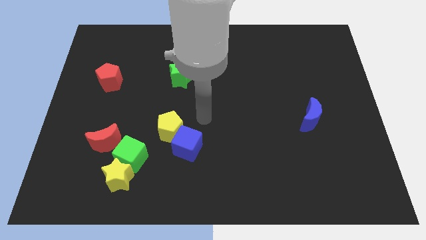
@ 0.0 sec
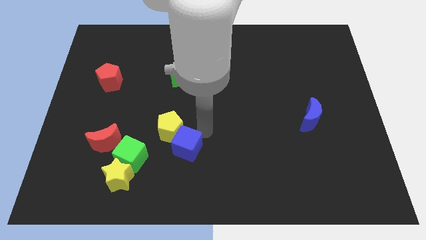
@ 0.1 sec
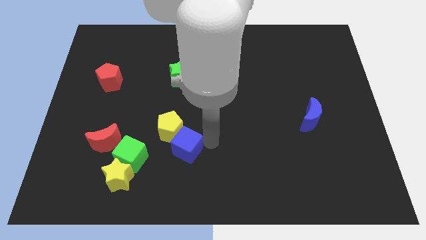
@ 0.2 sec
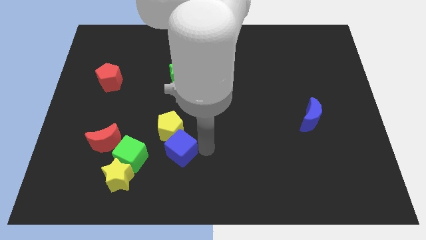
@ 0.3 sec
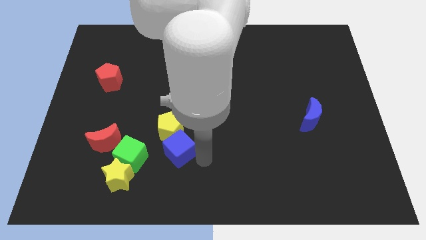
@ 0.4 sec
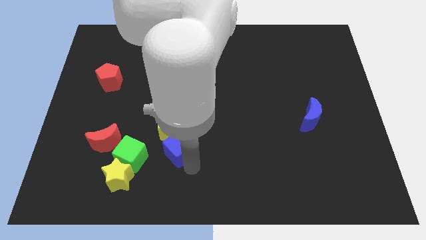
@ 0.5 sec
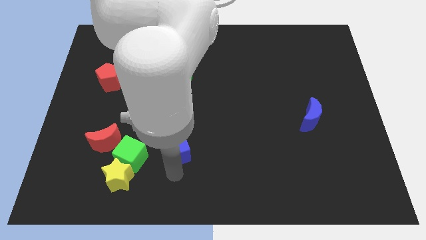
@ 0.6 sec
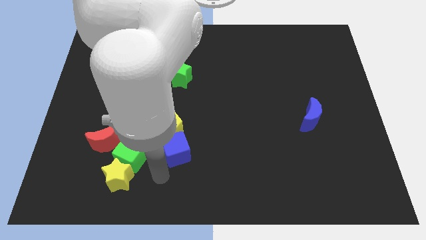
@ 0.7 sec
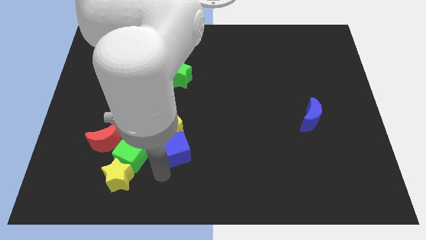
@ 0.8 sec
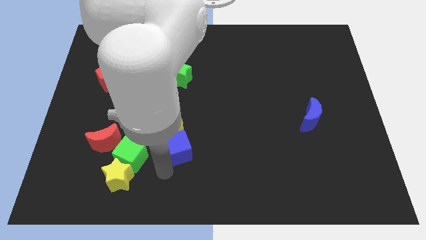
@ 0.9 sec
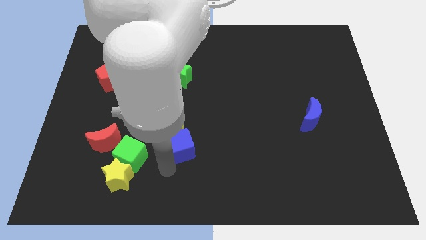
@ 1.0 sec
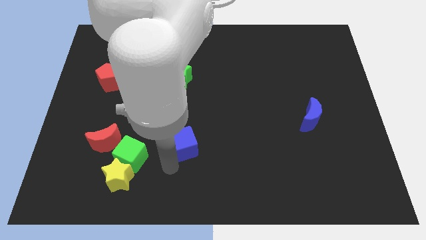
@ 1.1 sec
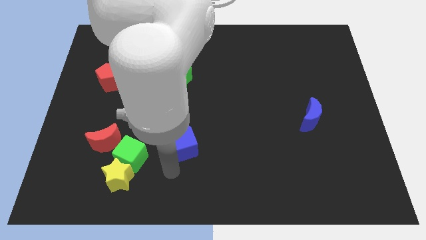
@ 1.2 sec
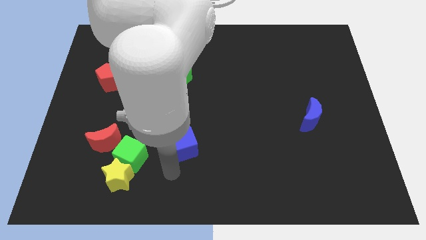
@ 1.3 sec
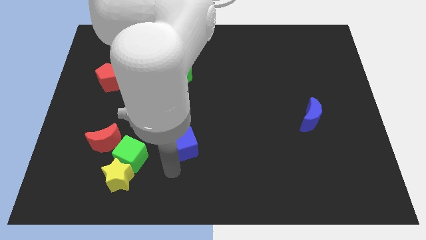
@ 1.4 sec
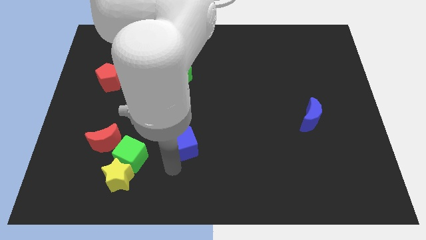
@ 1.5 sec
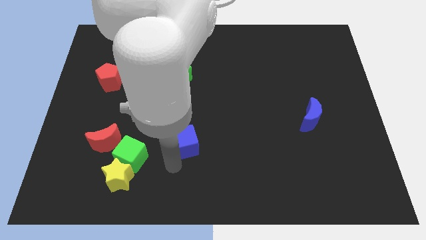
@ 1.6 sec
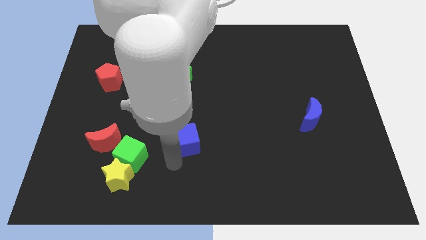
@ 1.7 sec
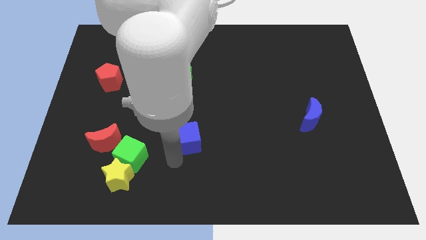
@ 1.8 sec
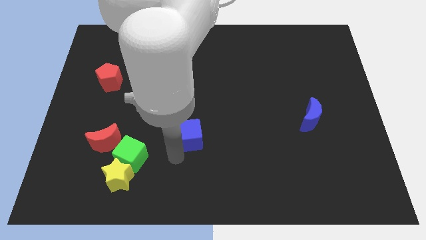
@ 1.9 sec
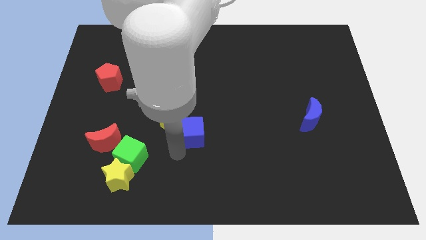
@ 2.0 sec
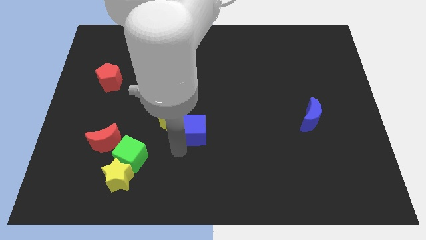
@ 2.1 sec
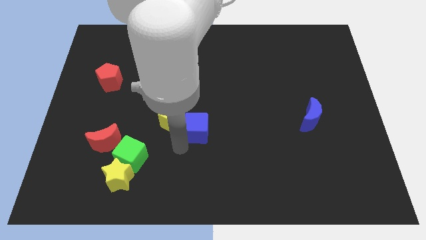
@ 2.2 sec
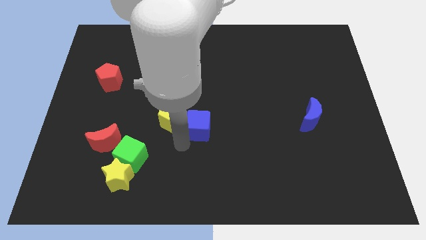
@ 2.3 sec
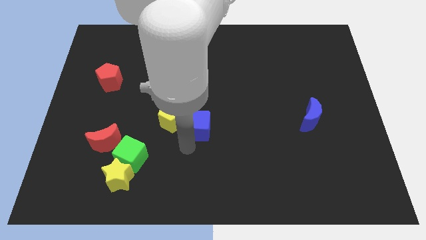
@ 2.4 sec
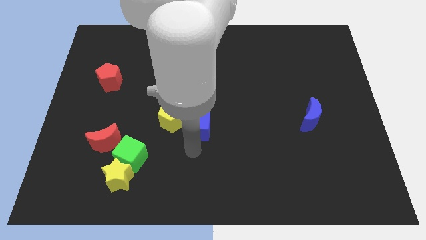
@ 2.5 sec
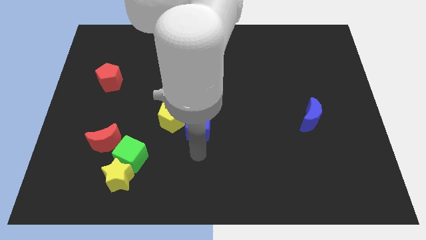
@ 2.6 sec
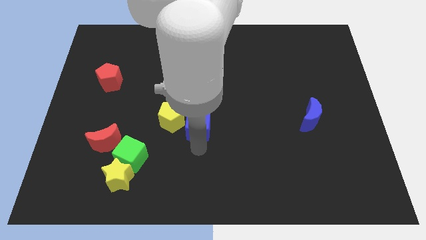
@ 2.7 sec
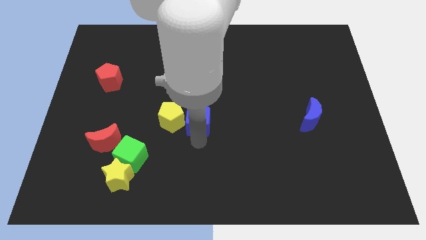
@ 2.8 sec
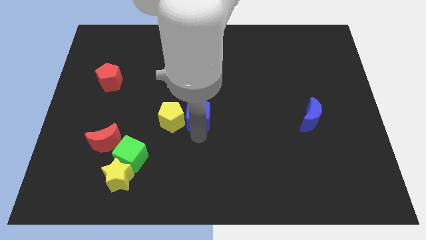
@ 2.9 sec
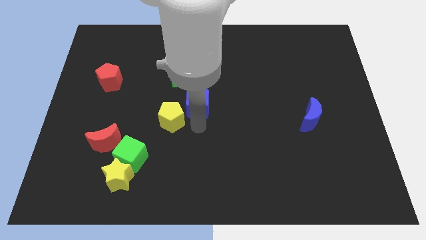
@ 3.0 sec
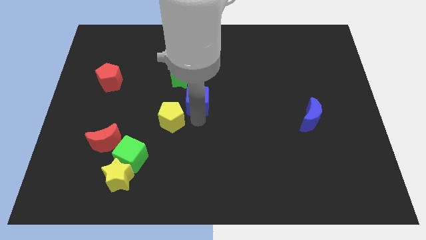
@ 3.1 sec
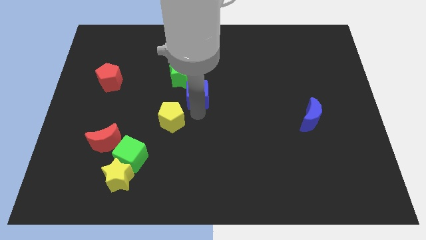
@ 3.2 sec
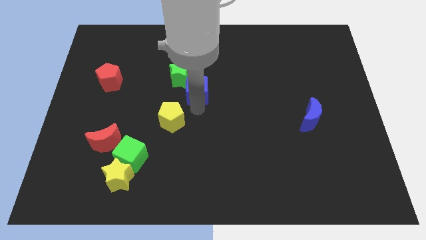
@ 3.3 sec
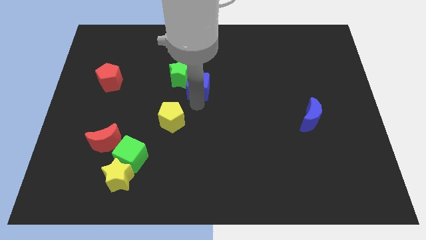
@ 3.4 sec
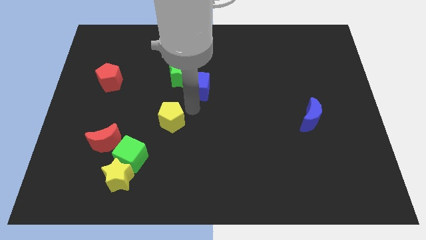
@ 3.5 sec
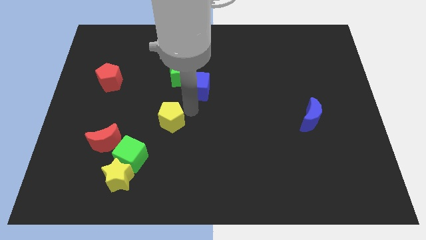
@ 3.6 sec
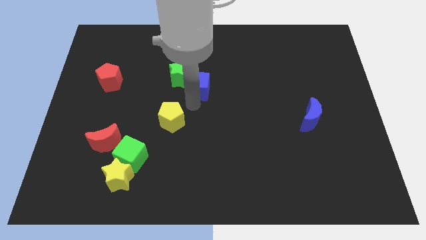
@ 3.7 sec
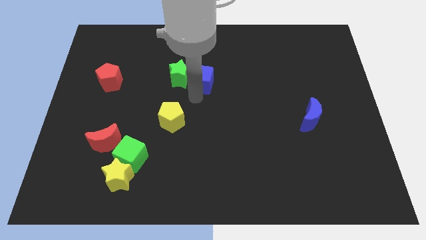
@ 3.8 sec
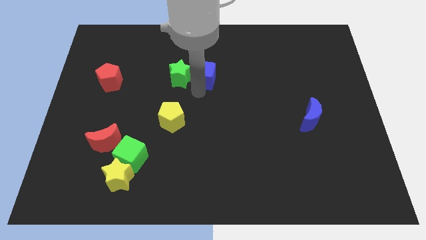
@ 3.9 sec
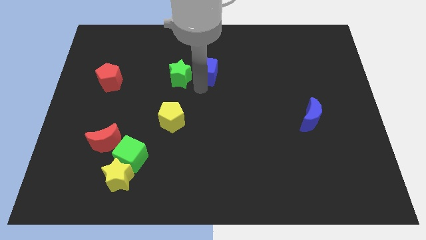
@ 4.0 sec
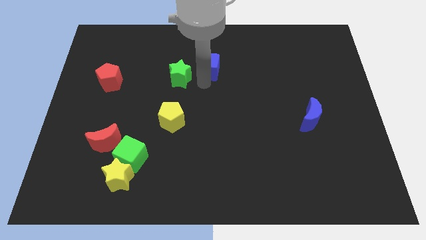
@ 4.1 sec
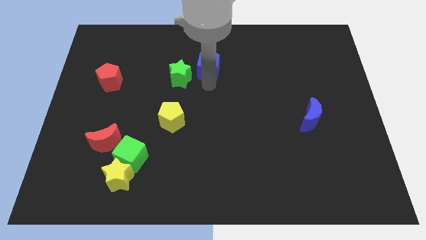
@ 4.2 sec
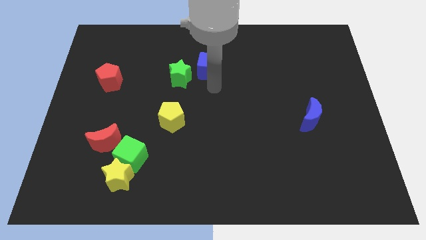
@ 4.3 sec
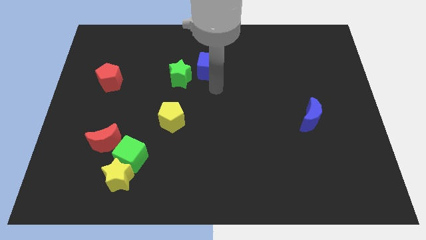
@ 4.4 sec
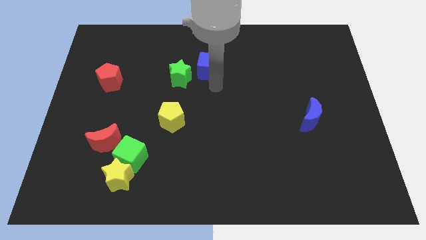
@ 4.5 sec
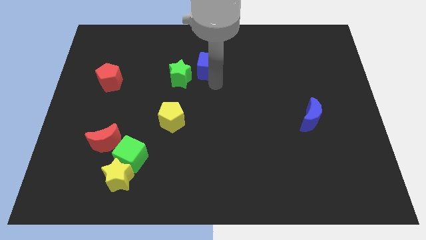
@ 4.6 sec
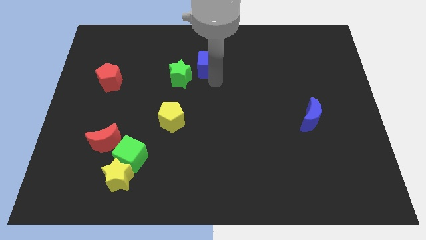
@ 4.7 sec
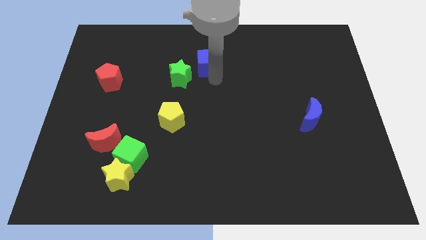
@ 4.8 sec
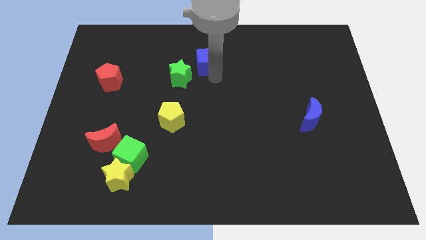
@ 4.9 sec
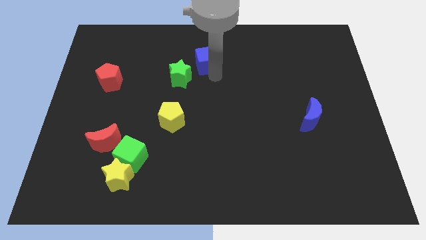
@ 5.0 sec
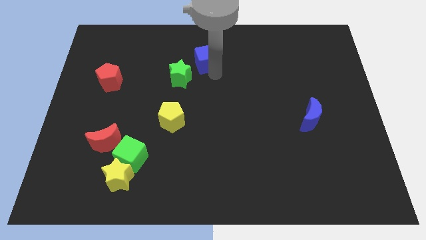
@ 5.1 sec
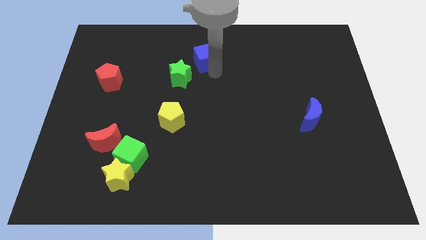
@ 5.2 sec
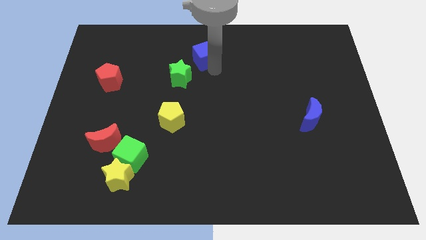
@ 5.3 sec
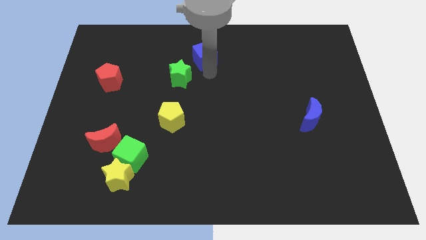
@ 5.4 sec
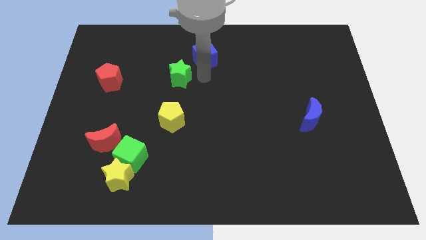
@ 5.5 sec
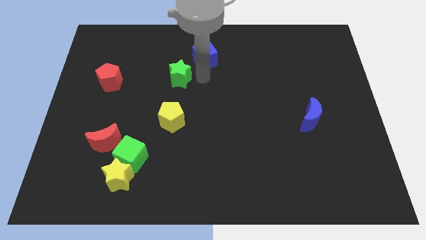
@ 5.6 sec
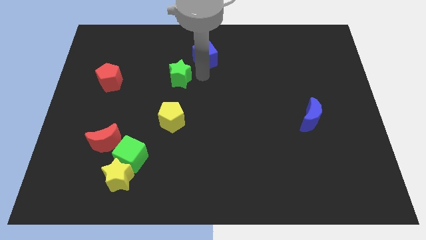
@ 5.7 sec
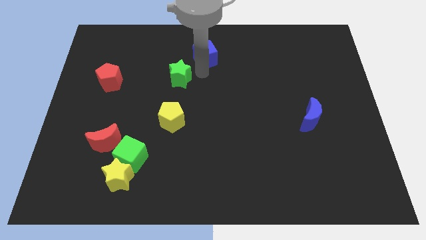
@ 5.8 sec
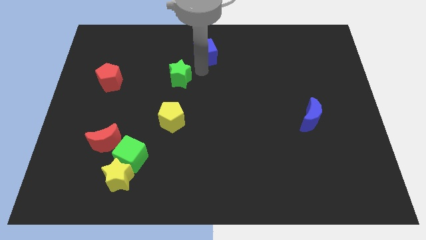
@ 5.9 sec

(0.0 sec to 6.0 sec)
move the blue cube to the top side
